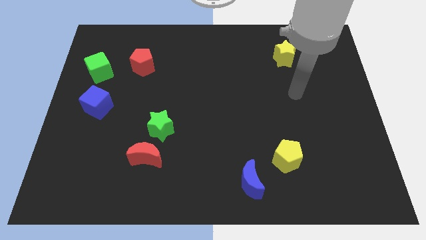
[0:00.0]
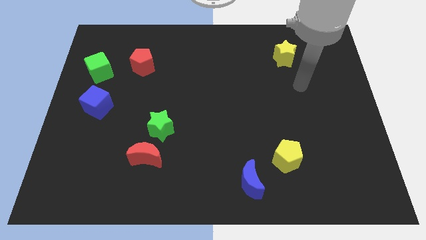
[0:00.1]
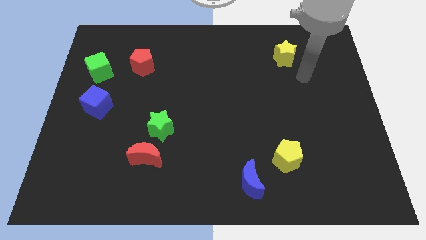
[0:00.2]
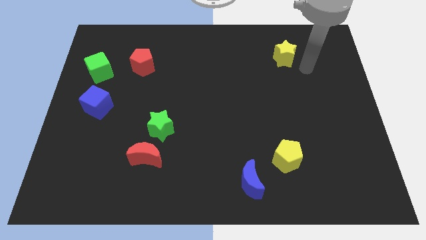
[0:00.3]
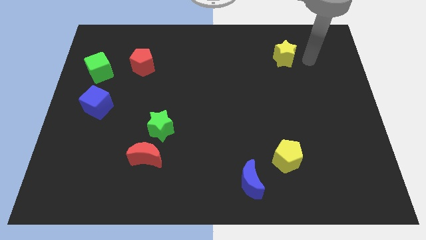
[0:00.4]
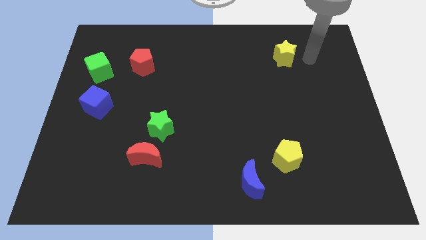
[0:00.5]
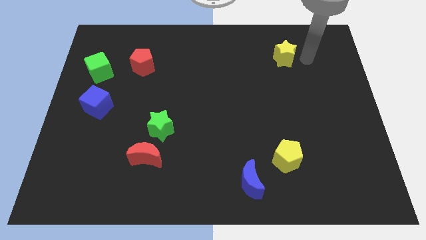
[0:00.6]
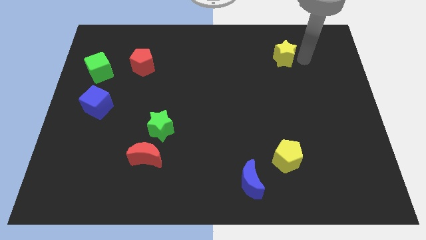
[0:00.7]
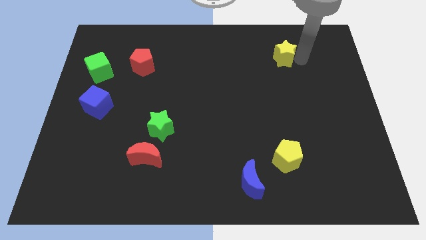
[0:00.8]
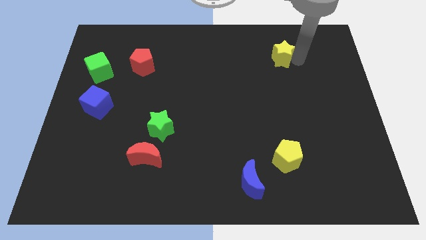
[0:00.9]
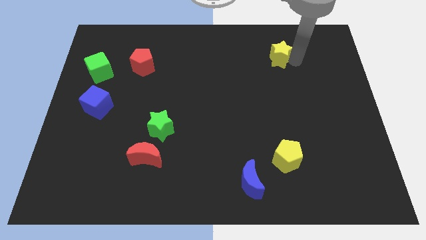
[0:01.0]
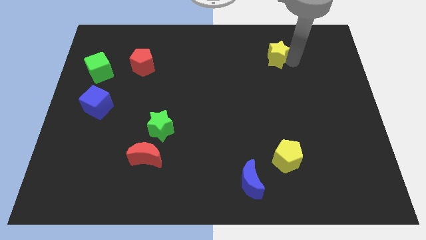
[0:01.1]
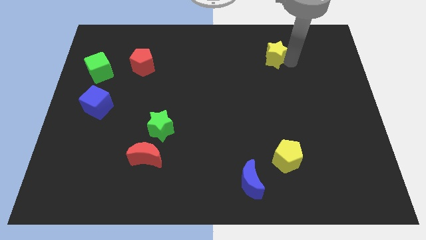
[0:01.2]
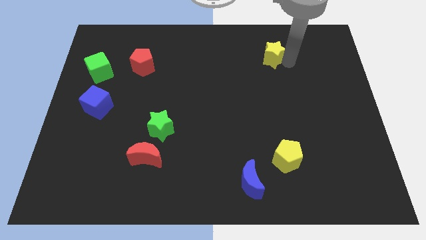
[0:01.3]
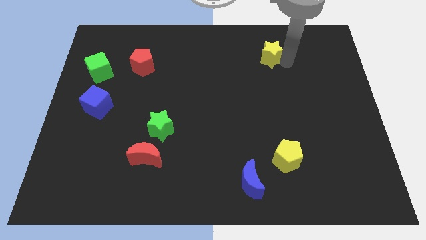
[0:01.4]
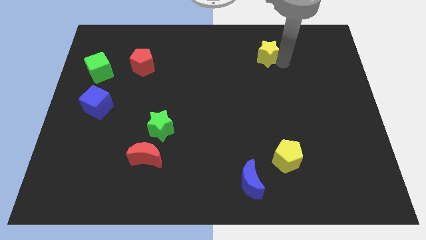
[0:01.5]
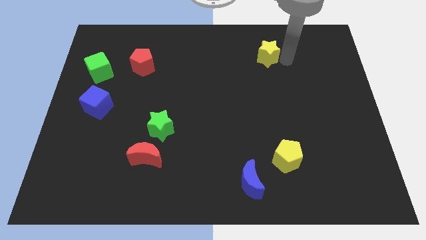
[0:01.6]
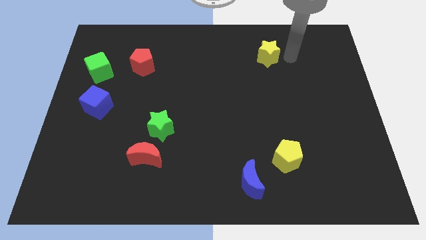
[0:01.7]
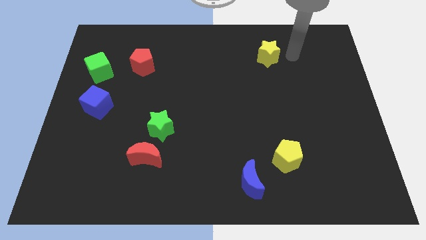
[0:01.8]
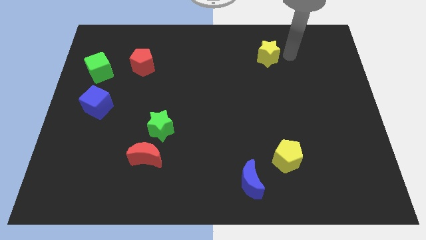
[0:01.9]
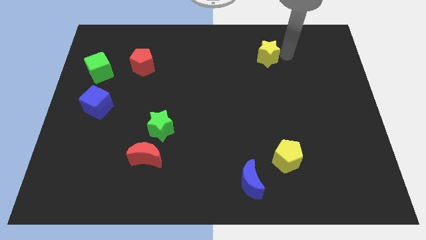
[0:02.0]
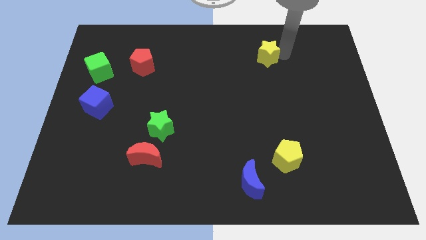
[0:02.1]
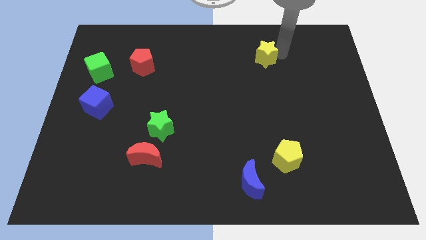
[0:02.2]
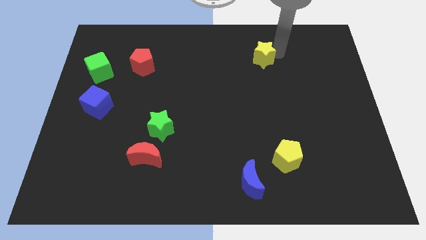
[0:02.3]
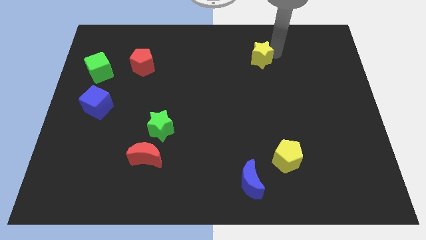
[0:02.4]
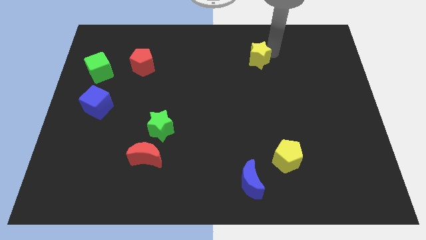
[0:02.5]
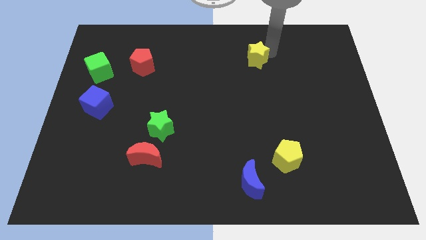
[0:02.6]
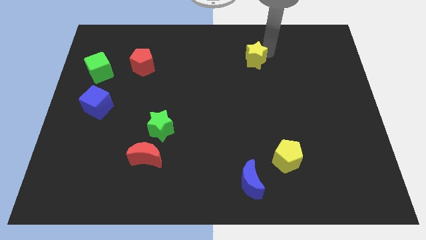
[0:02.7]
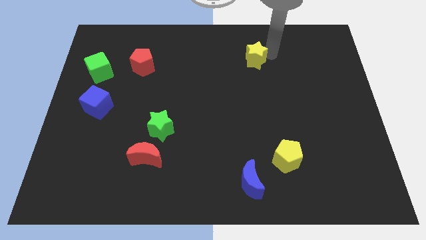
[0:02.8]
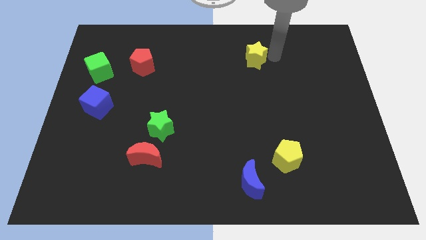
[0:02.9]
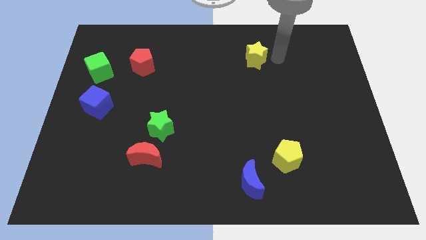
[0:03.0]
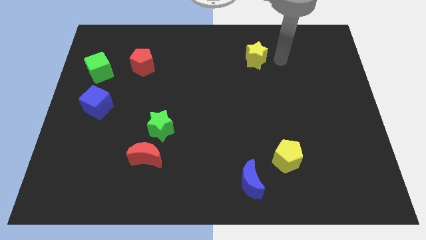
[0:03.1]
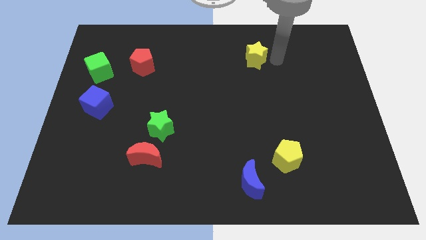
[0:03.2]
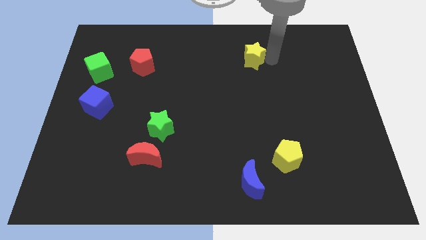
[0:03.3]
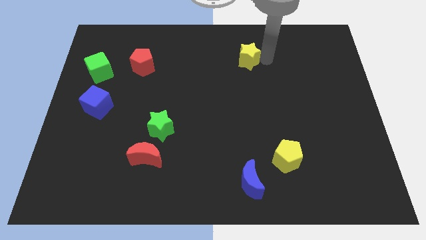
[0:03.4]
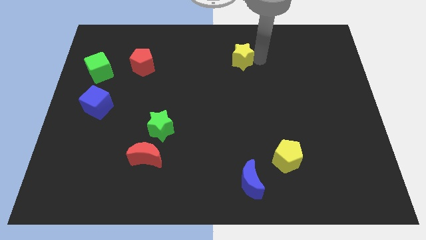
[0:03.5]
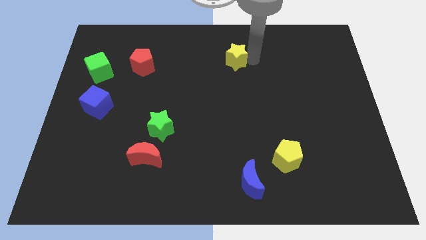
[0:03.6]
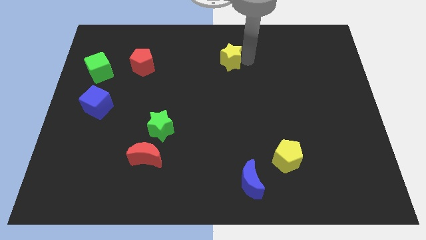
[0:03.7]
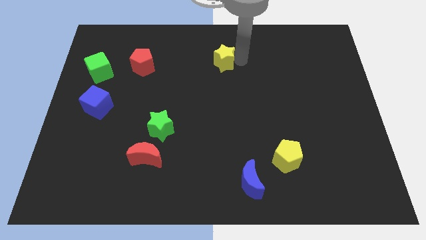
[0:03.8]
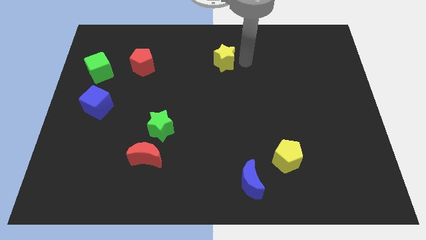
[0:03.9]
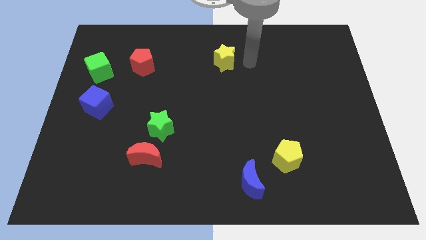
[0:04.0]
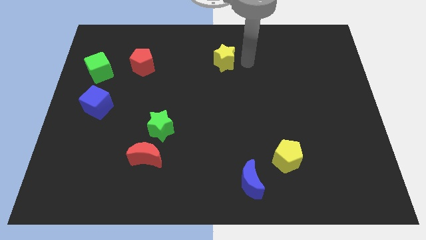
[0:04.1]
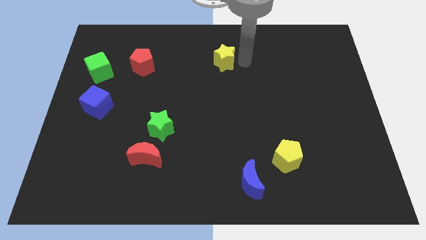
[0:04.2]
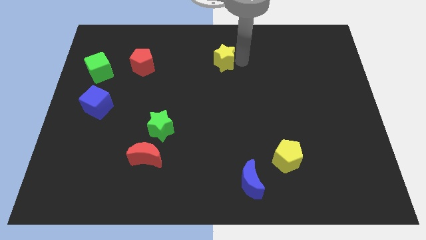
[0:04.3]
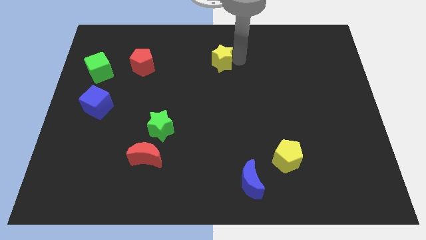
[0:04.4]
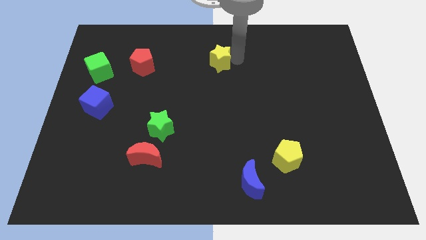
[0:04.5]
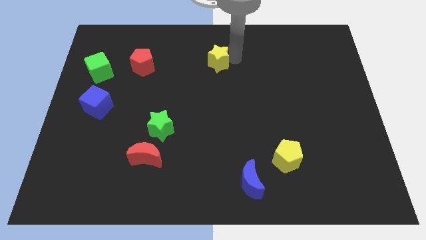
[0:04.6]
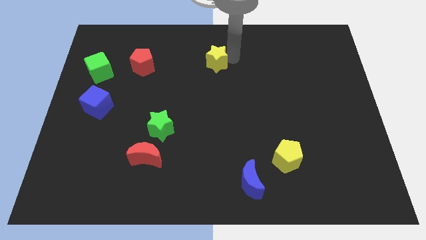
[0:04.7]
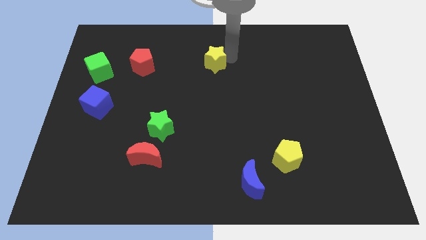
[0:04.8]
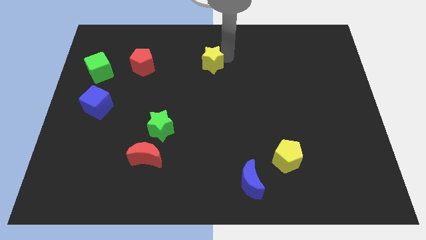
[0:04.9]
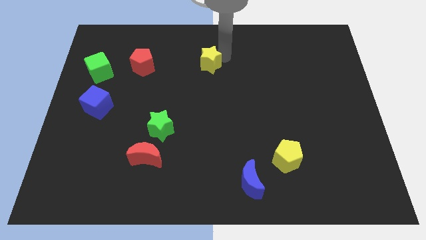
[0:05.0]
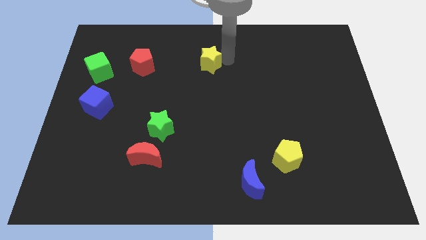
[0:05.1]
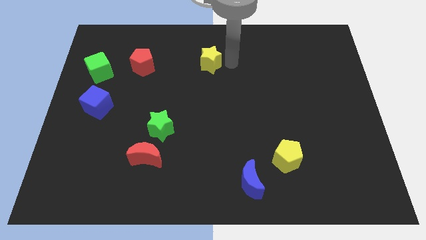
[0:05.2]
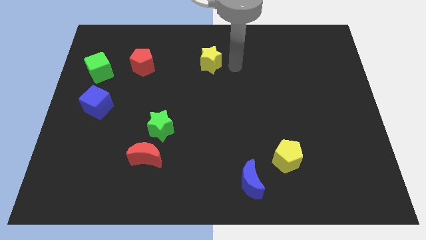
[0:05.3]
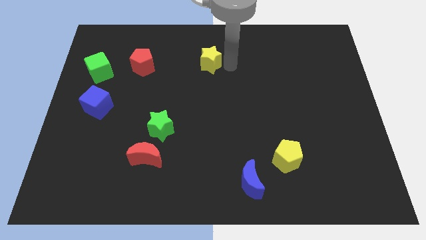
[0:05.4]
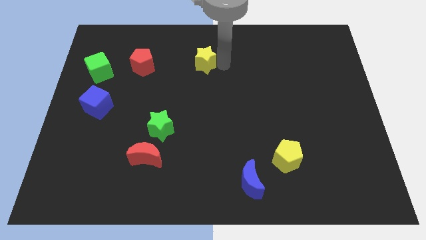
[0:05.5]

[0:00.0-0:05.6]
slide the yellow star to the left

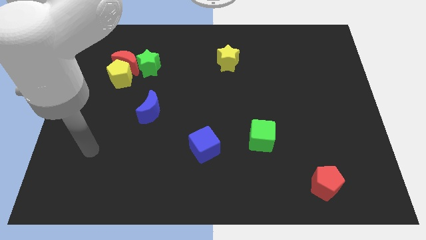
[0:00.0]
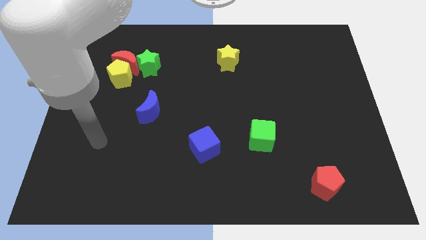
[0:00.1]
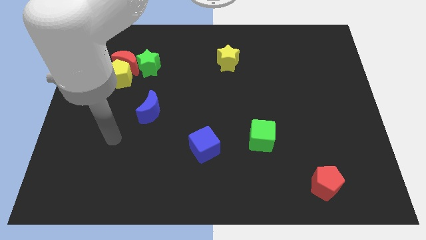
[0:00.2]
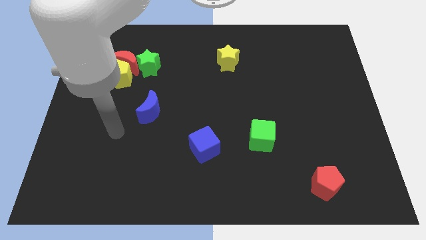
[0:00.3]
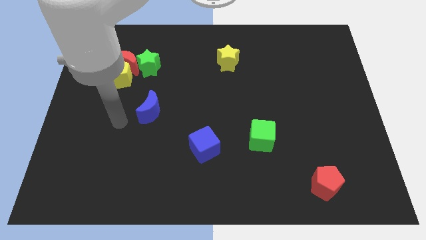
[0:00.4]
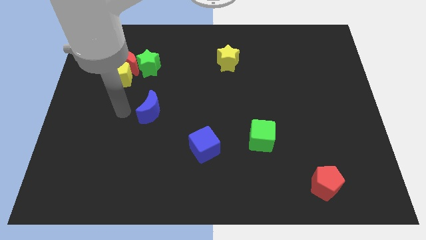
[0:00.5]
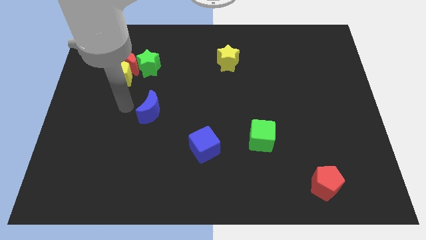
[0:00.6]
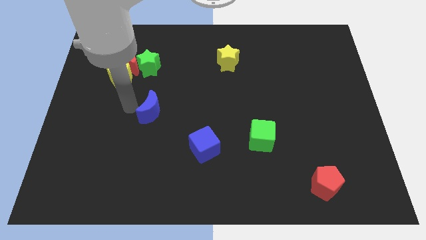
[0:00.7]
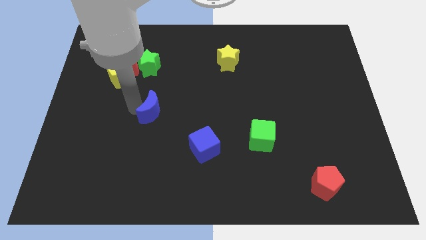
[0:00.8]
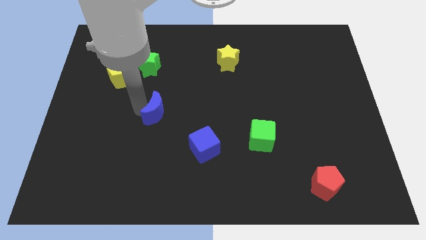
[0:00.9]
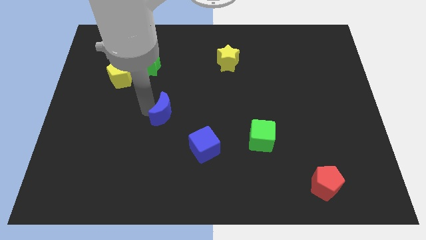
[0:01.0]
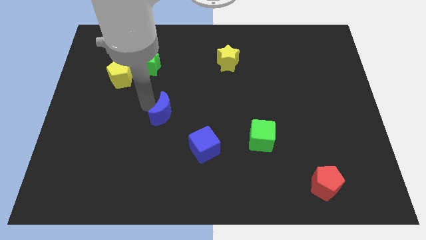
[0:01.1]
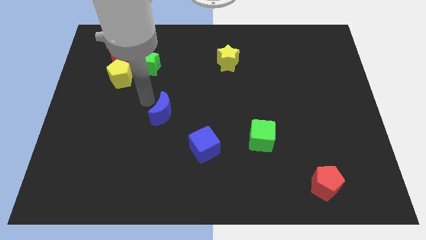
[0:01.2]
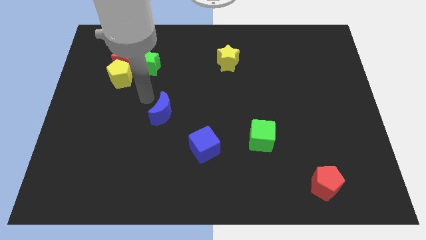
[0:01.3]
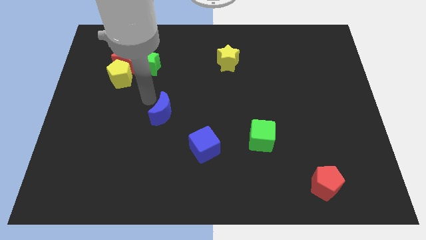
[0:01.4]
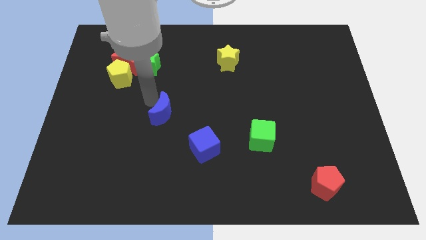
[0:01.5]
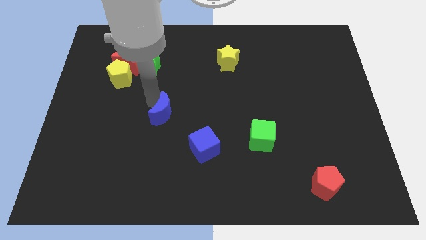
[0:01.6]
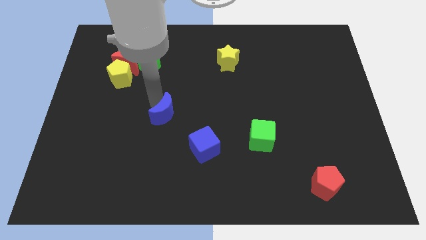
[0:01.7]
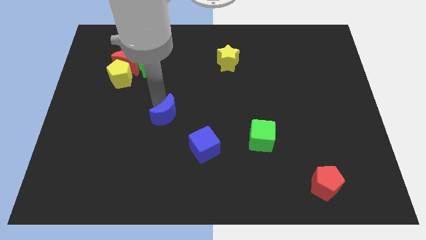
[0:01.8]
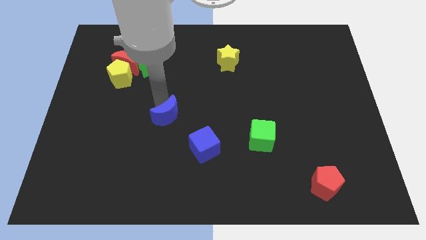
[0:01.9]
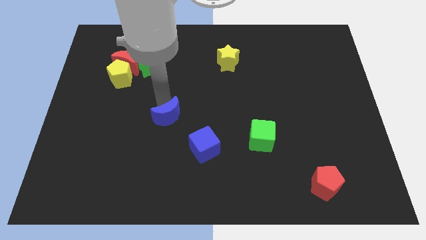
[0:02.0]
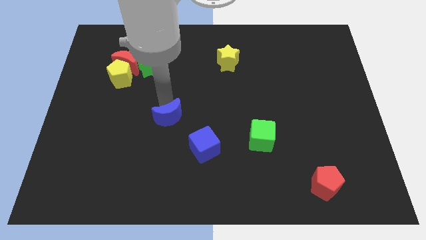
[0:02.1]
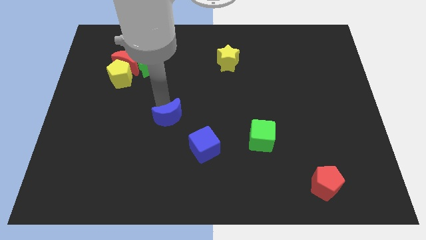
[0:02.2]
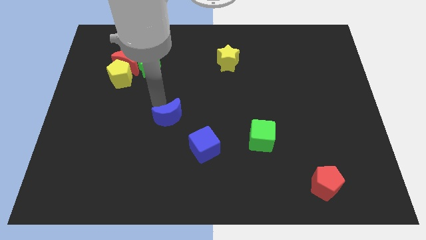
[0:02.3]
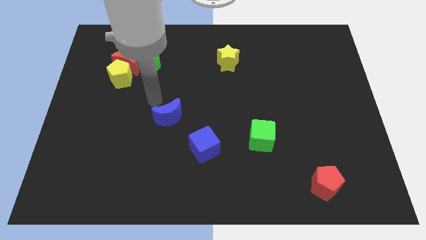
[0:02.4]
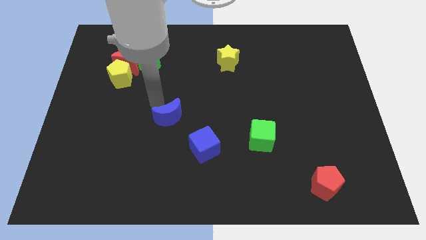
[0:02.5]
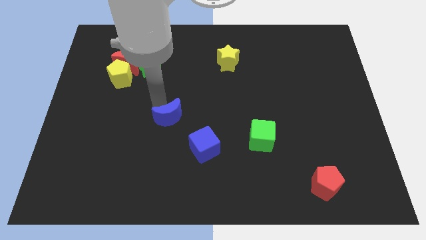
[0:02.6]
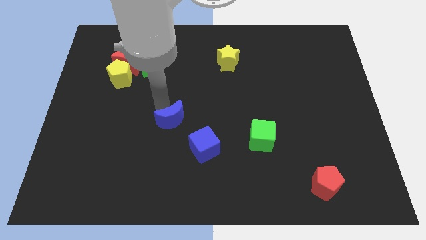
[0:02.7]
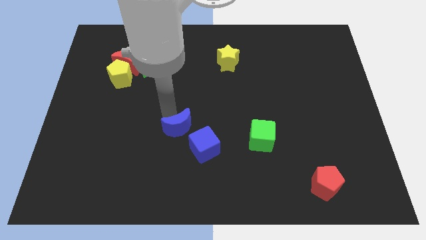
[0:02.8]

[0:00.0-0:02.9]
slightly push the blue moon down and to the right diagonally
